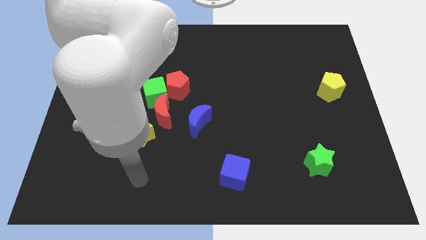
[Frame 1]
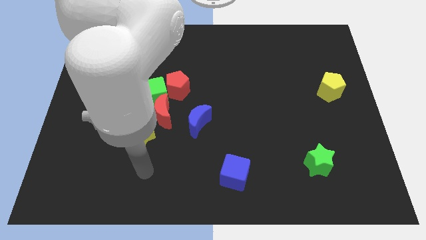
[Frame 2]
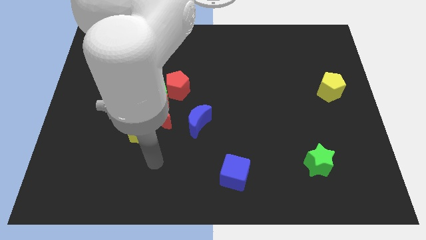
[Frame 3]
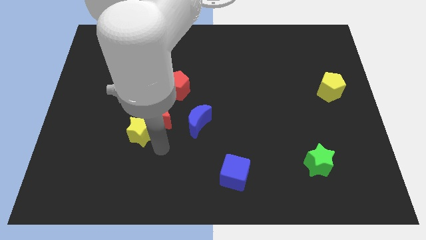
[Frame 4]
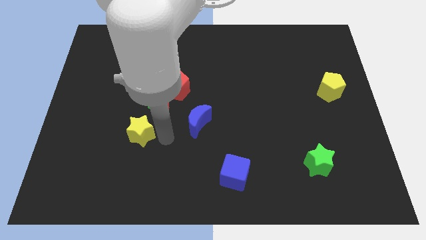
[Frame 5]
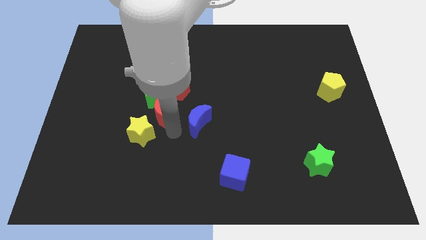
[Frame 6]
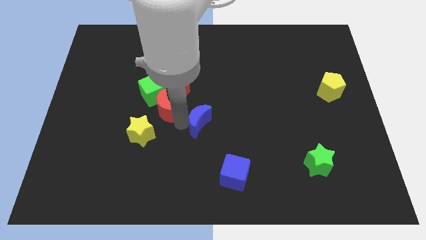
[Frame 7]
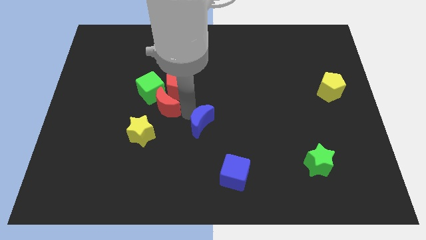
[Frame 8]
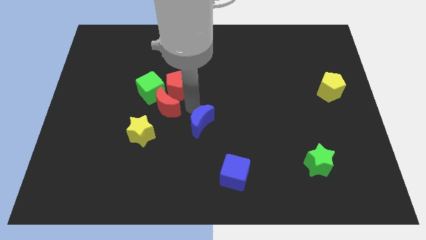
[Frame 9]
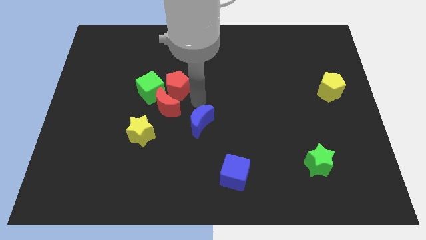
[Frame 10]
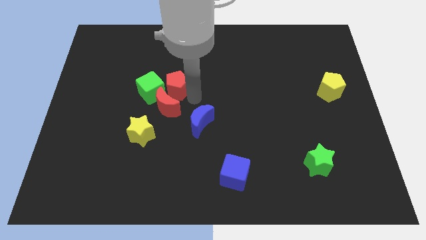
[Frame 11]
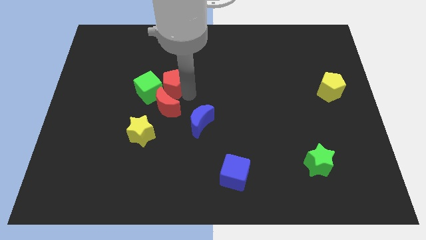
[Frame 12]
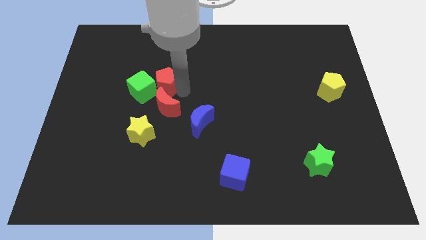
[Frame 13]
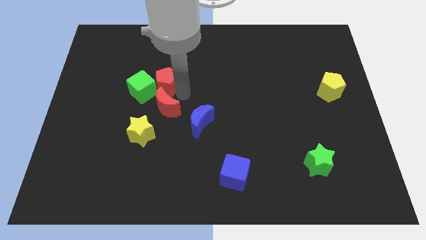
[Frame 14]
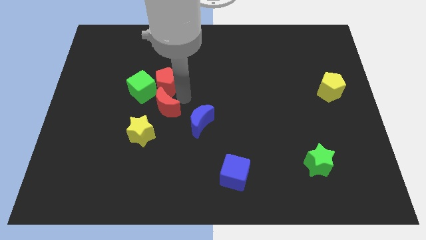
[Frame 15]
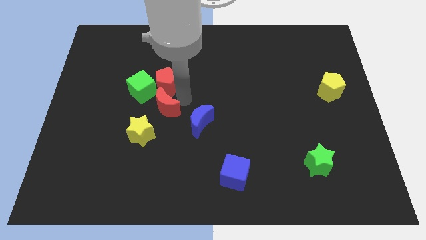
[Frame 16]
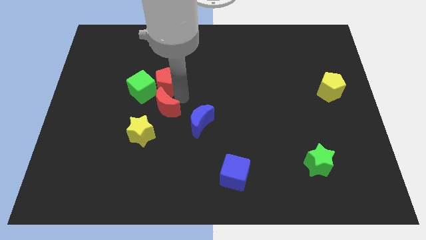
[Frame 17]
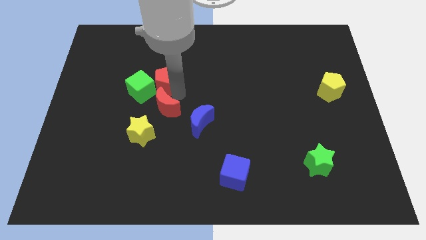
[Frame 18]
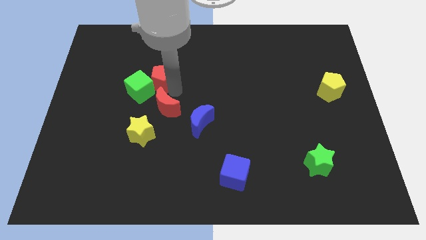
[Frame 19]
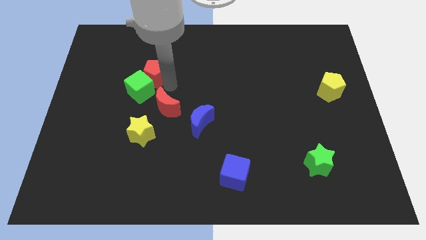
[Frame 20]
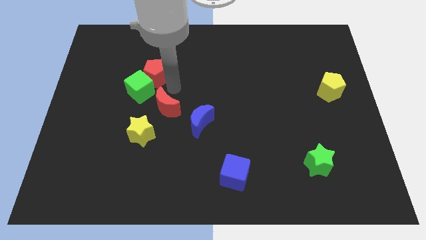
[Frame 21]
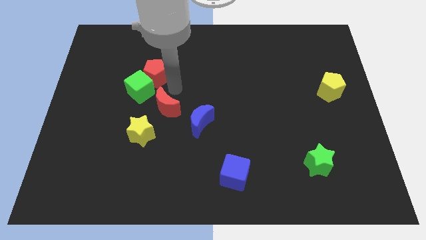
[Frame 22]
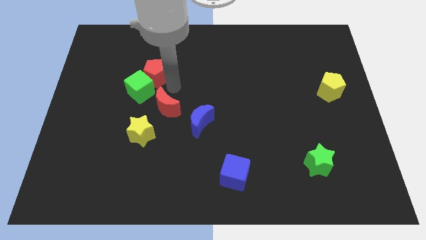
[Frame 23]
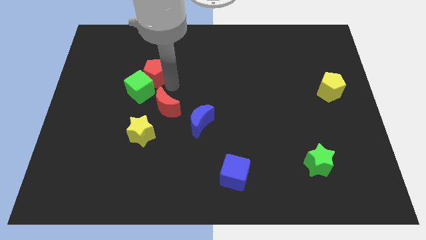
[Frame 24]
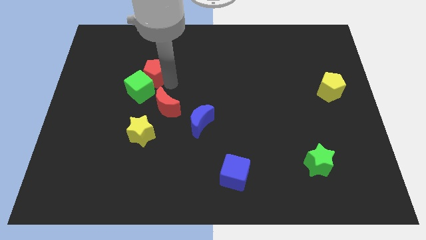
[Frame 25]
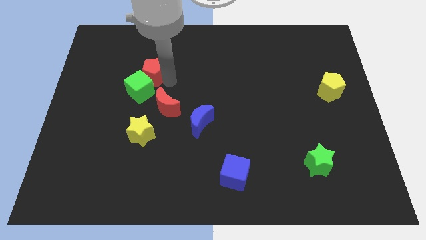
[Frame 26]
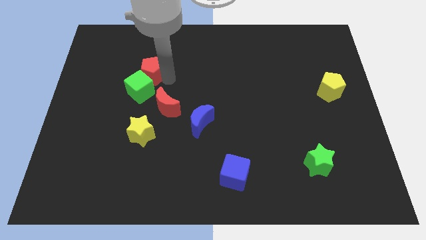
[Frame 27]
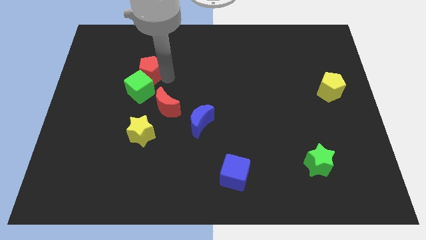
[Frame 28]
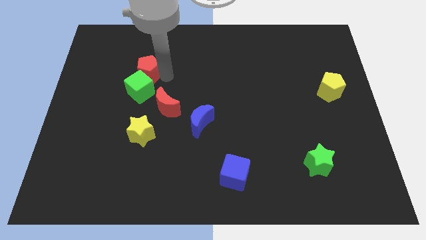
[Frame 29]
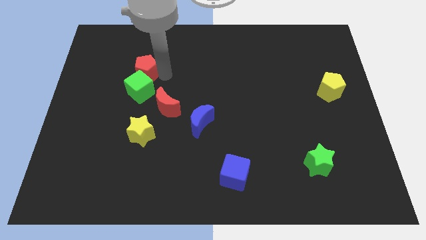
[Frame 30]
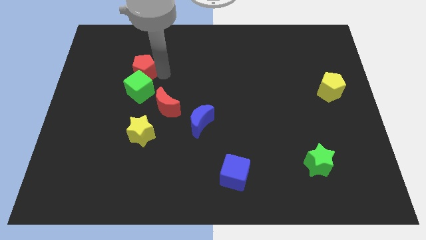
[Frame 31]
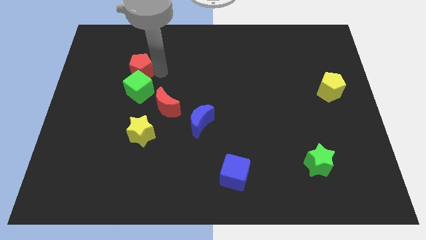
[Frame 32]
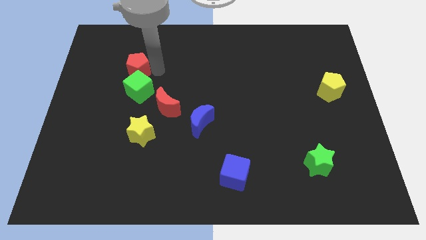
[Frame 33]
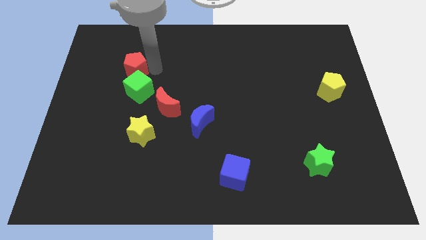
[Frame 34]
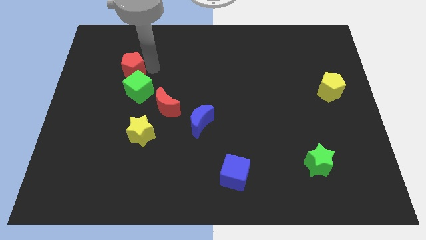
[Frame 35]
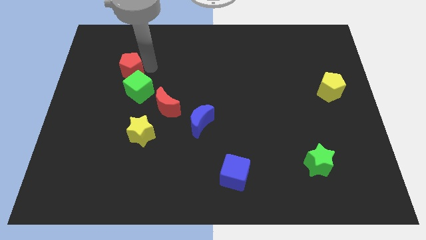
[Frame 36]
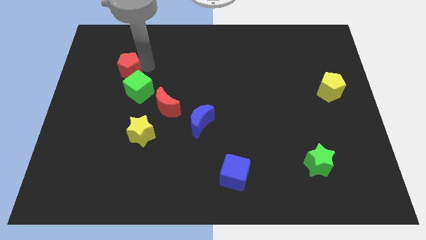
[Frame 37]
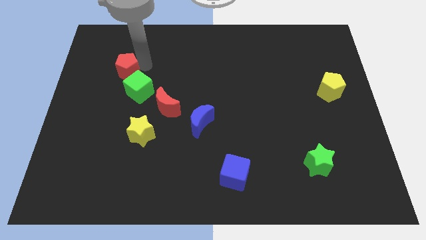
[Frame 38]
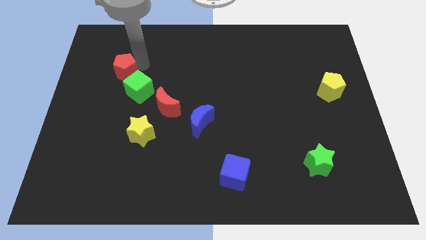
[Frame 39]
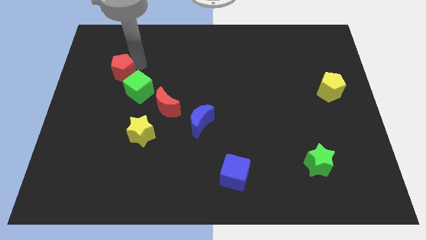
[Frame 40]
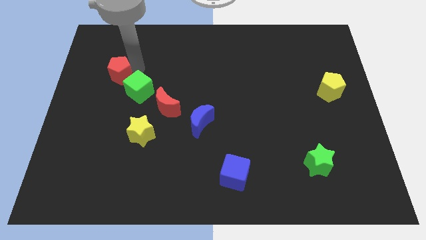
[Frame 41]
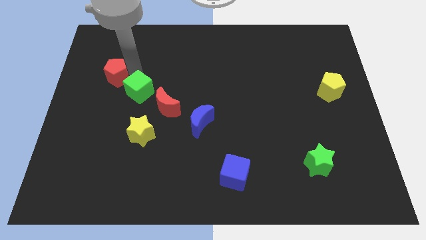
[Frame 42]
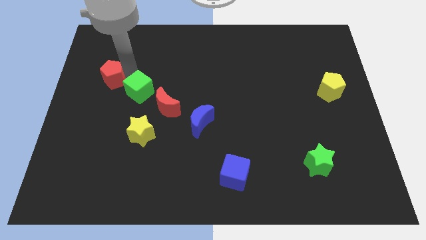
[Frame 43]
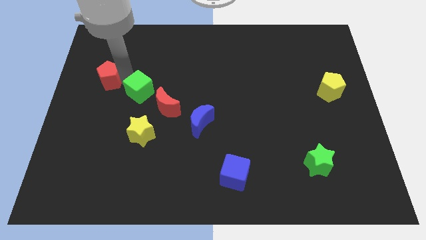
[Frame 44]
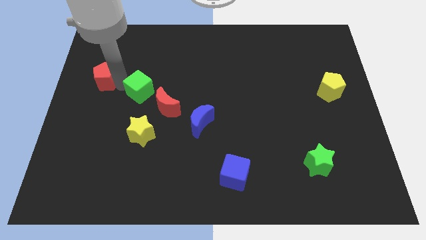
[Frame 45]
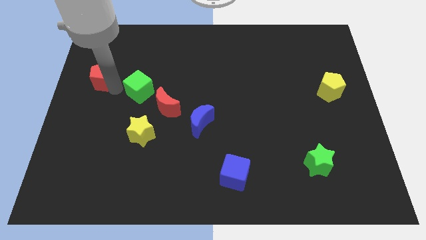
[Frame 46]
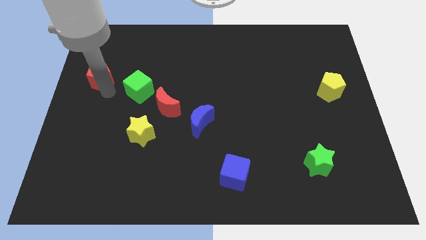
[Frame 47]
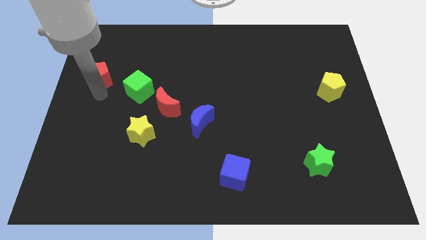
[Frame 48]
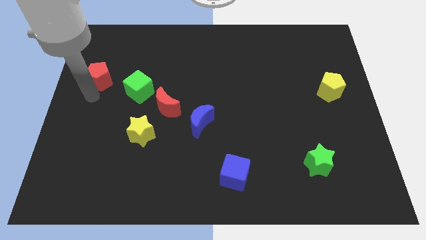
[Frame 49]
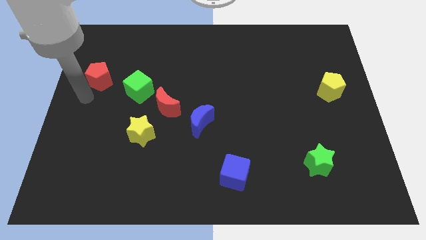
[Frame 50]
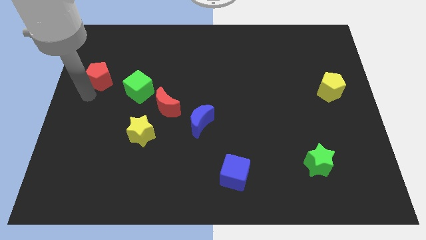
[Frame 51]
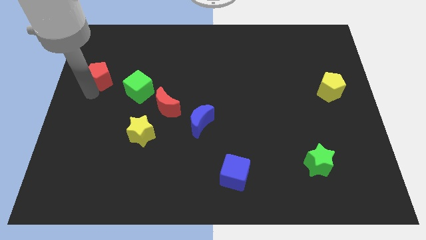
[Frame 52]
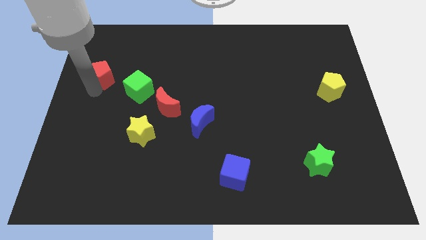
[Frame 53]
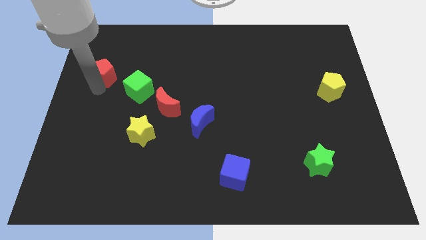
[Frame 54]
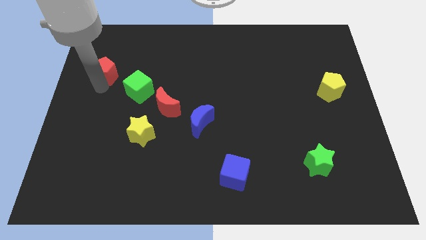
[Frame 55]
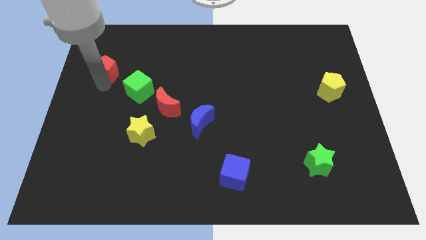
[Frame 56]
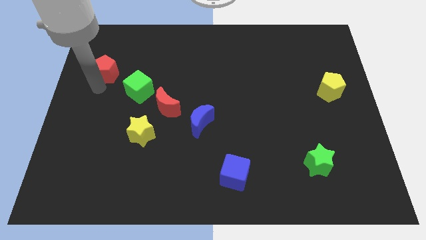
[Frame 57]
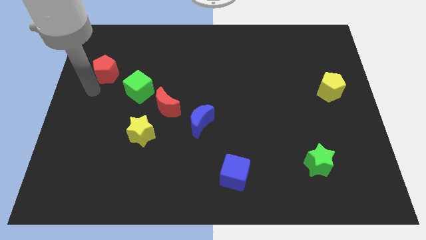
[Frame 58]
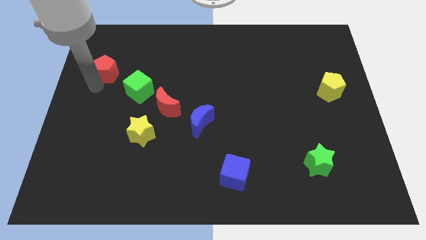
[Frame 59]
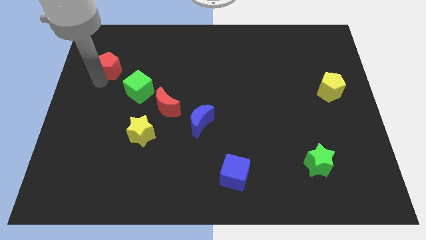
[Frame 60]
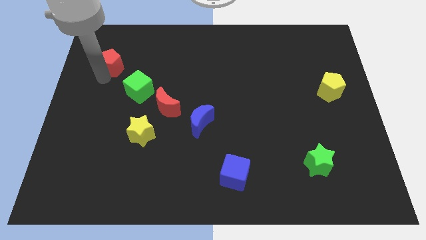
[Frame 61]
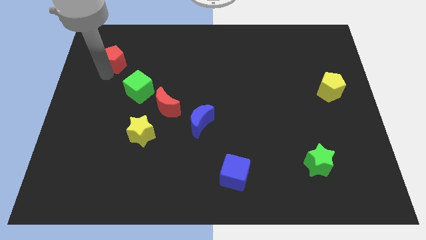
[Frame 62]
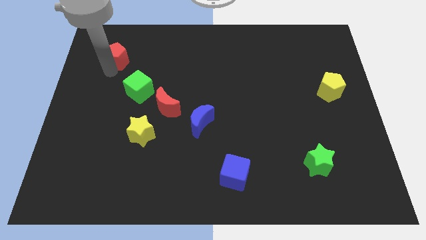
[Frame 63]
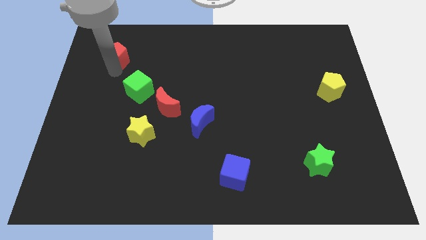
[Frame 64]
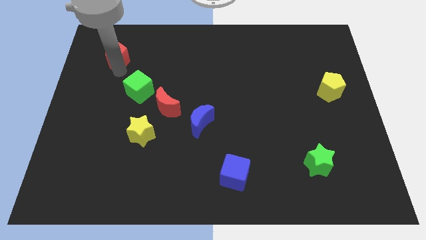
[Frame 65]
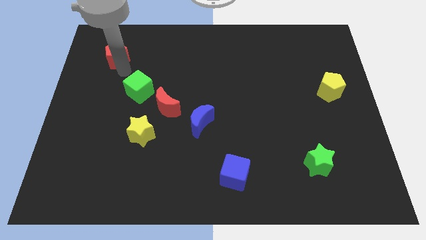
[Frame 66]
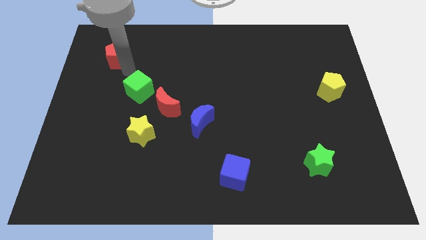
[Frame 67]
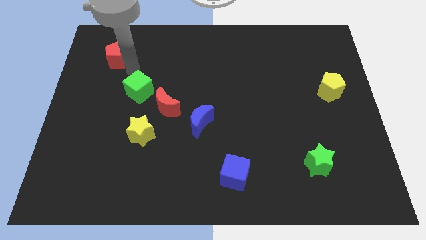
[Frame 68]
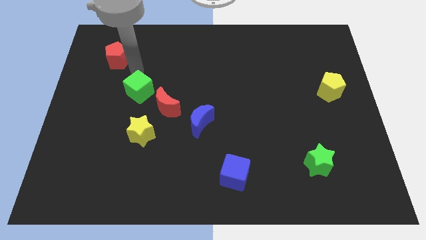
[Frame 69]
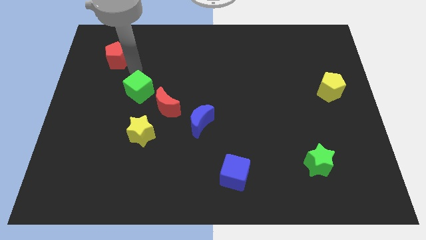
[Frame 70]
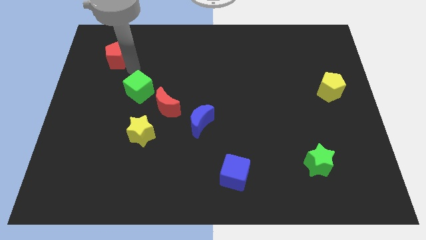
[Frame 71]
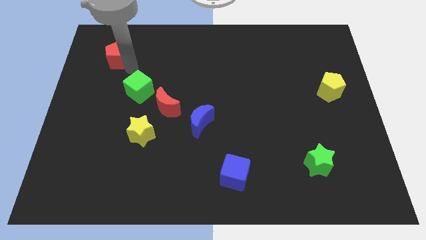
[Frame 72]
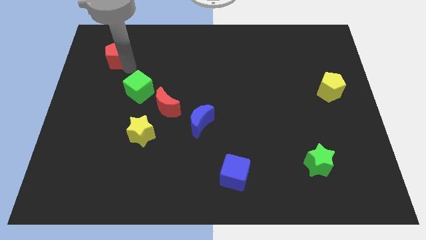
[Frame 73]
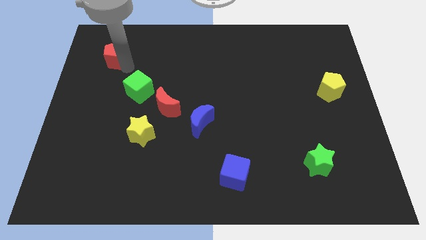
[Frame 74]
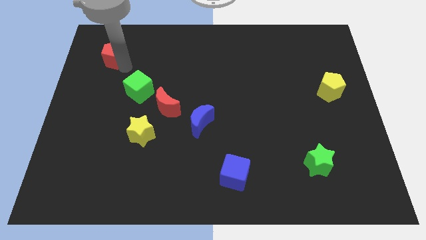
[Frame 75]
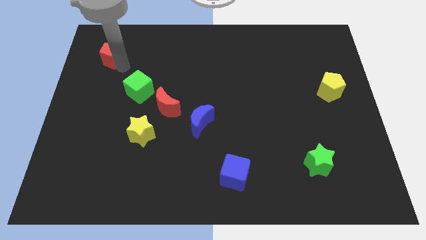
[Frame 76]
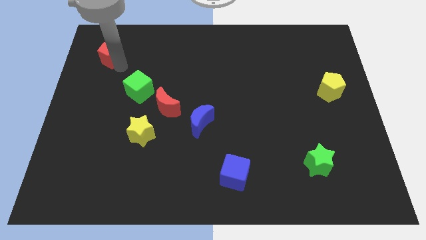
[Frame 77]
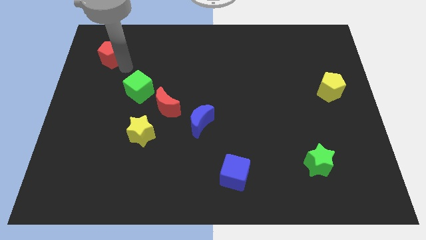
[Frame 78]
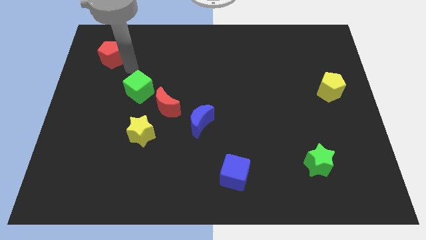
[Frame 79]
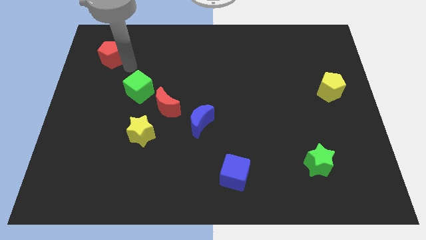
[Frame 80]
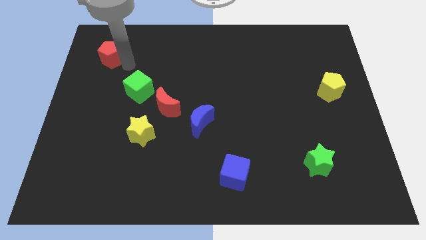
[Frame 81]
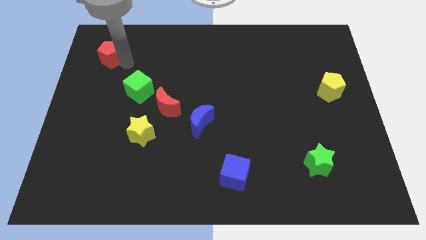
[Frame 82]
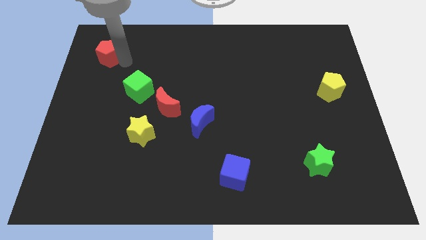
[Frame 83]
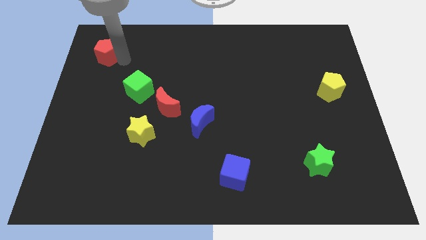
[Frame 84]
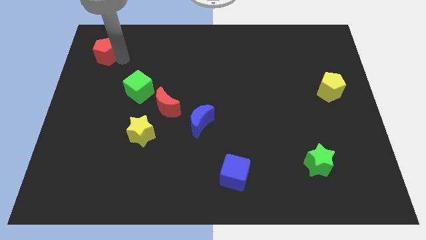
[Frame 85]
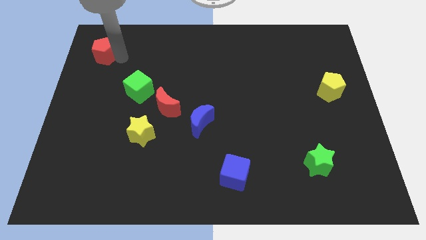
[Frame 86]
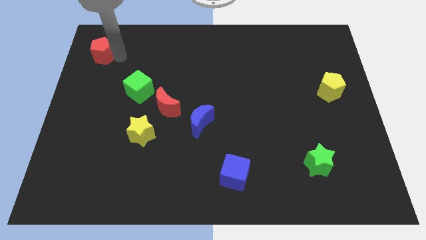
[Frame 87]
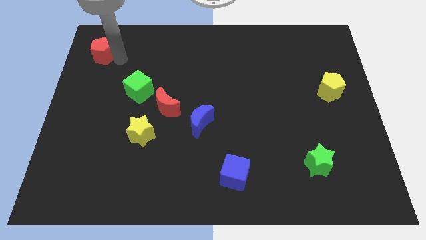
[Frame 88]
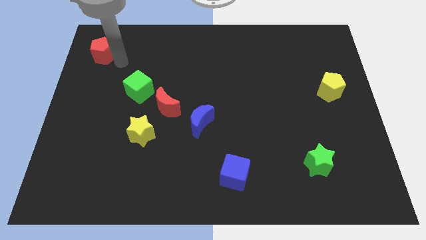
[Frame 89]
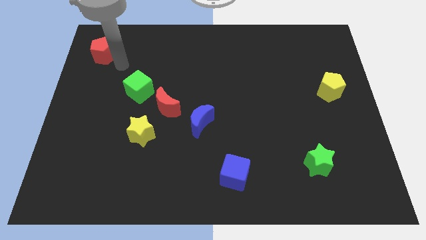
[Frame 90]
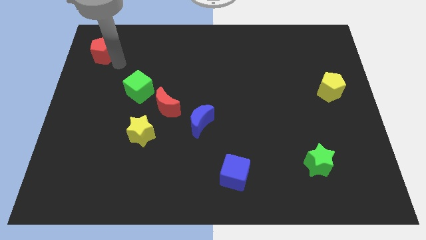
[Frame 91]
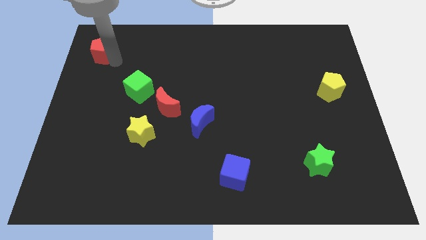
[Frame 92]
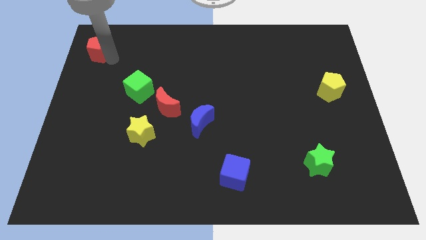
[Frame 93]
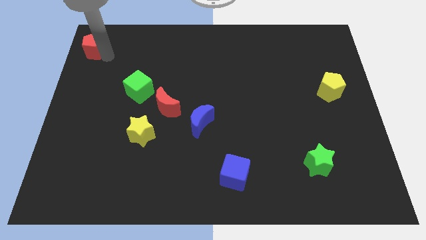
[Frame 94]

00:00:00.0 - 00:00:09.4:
move the red pentagon to the top left corner
